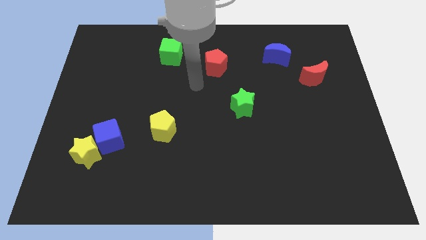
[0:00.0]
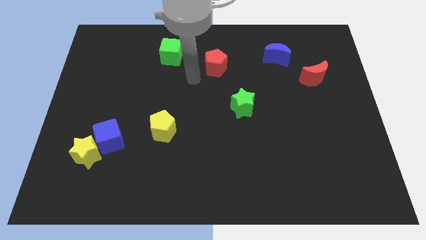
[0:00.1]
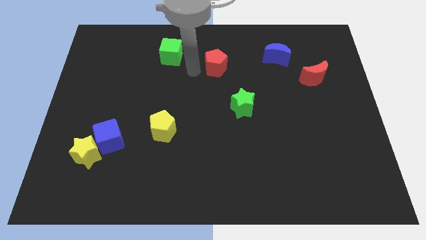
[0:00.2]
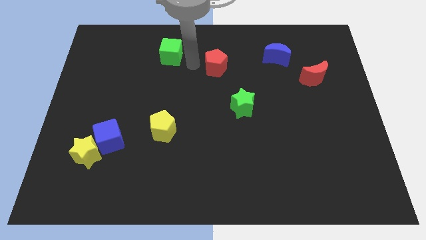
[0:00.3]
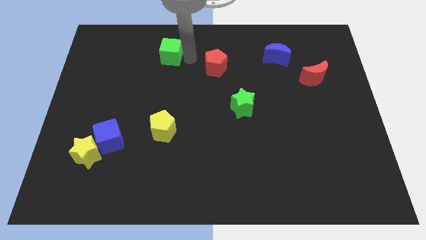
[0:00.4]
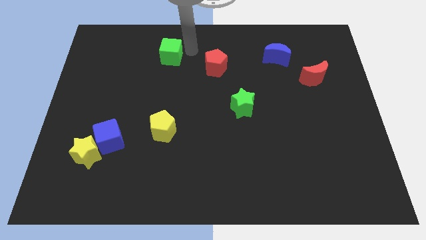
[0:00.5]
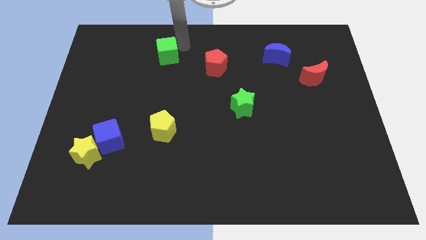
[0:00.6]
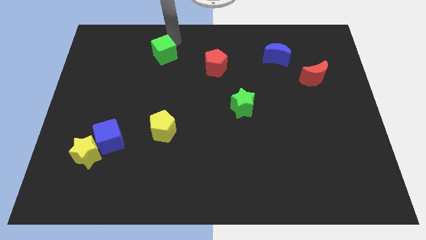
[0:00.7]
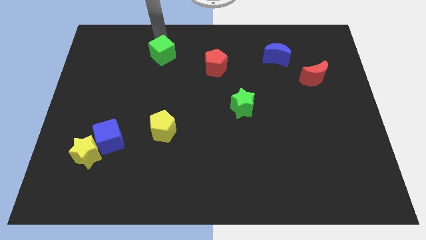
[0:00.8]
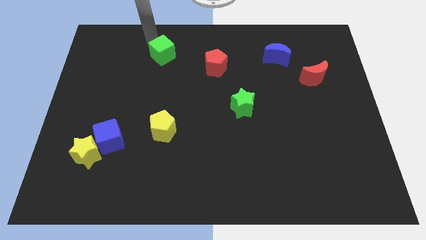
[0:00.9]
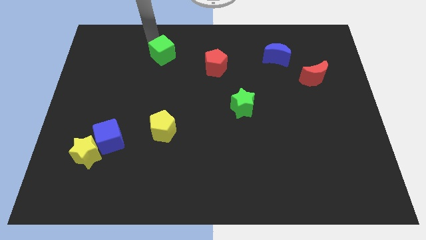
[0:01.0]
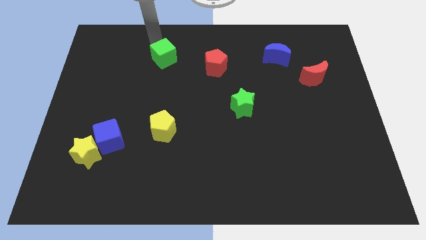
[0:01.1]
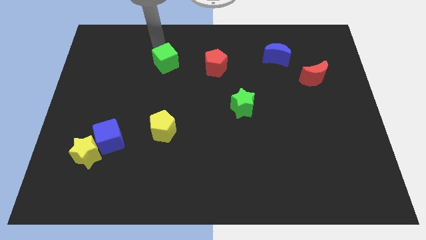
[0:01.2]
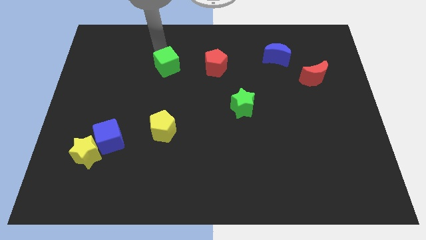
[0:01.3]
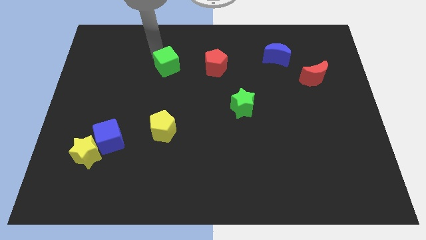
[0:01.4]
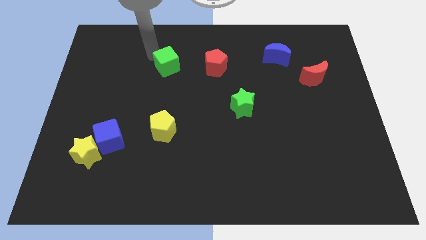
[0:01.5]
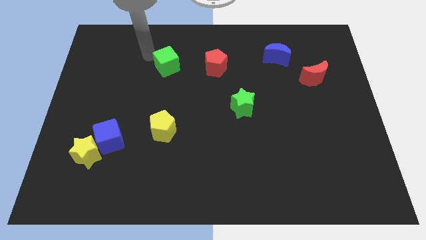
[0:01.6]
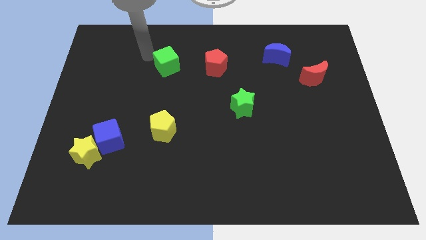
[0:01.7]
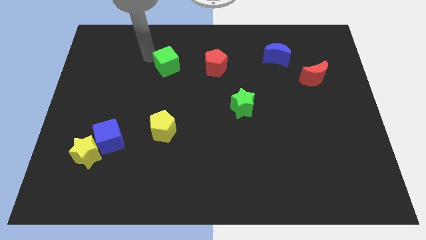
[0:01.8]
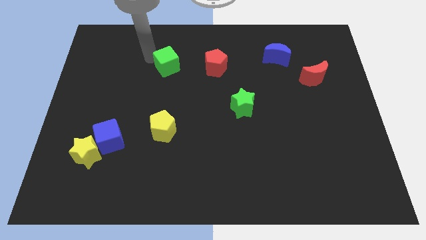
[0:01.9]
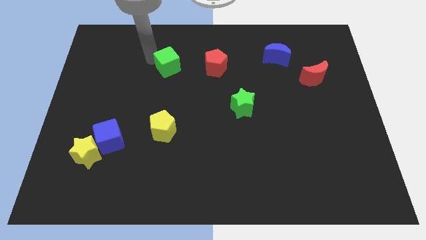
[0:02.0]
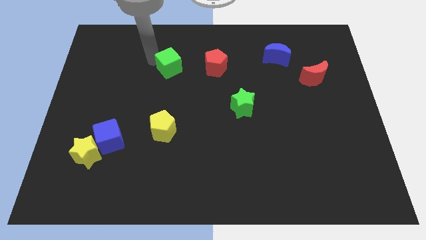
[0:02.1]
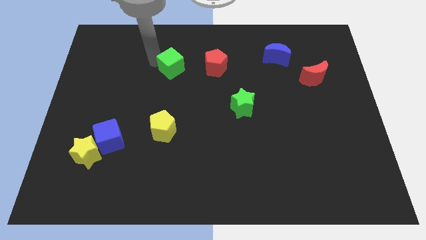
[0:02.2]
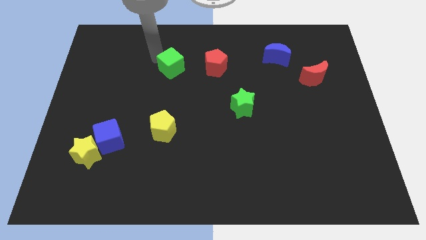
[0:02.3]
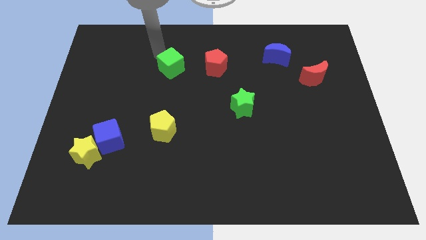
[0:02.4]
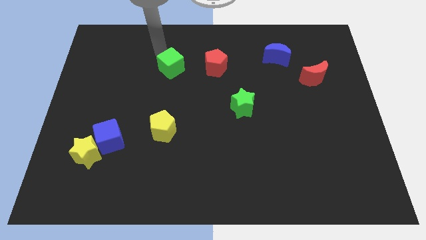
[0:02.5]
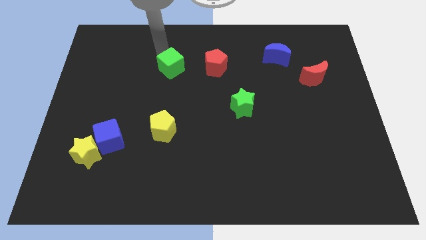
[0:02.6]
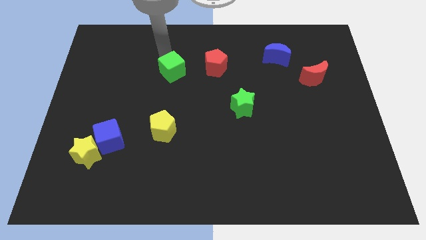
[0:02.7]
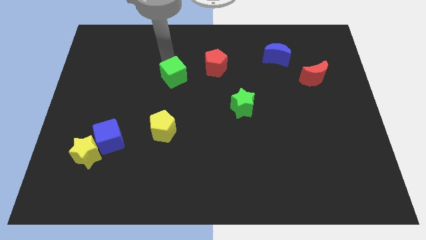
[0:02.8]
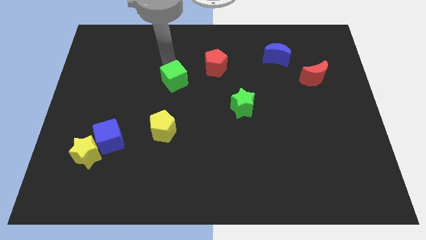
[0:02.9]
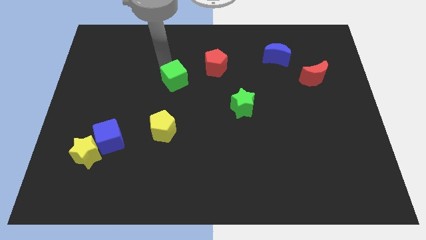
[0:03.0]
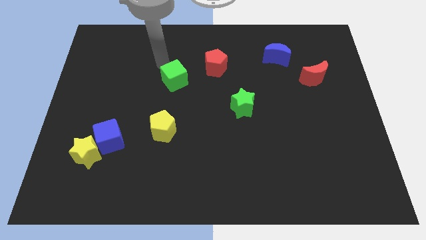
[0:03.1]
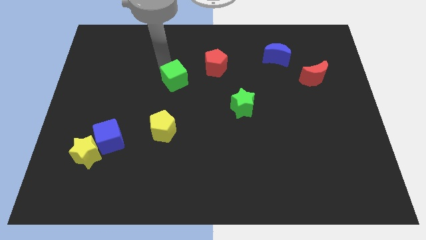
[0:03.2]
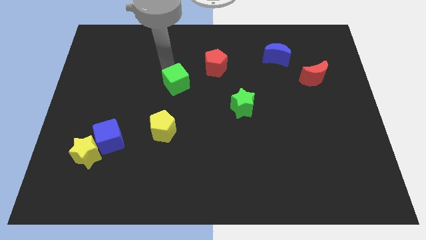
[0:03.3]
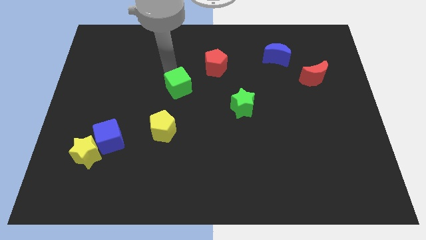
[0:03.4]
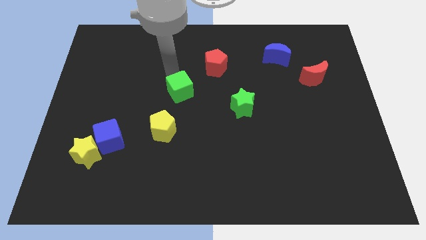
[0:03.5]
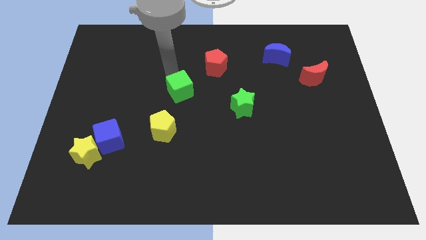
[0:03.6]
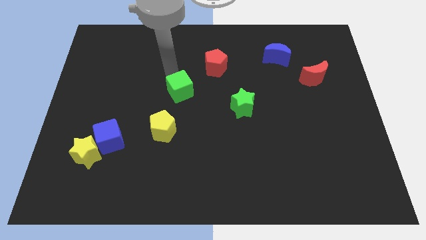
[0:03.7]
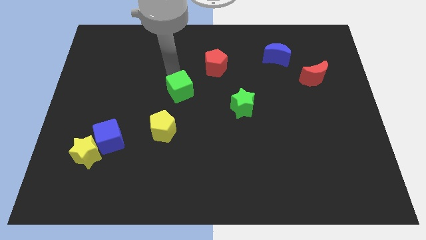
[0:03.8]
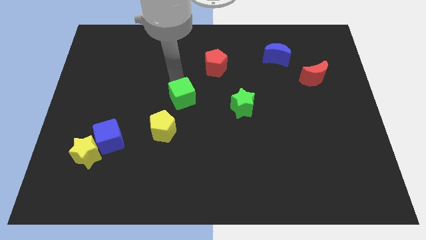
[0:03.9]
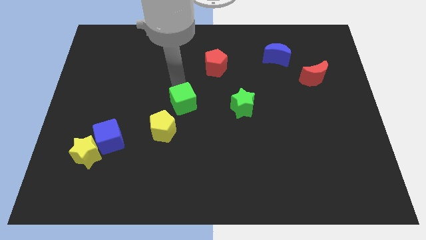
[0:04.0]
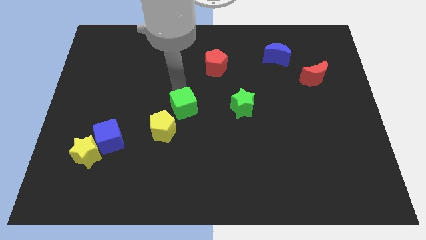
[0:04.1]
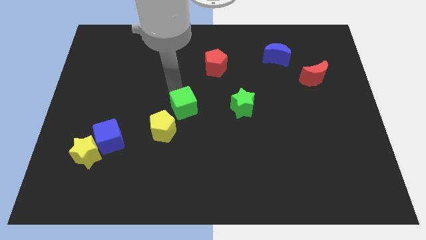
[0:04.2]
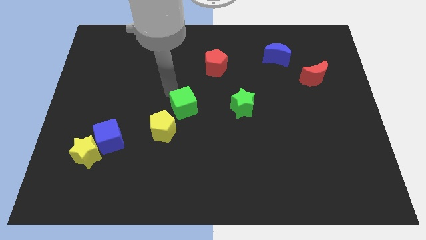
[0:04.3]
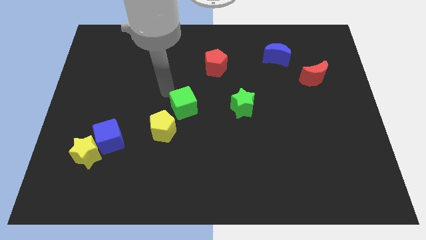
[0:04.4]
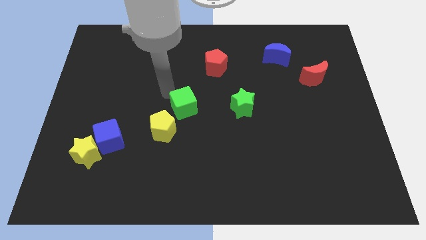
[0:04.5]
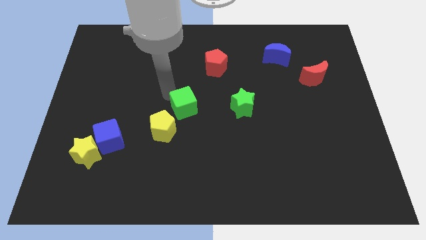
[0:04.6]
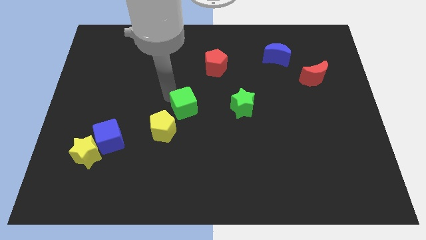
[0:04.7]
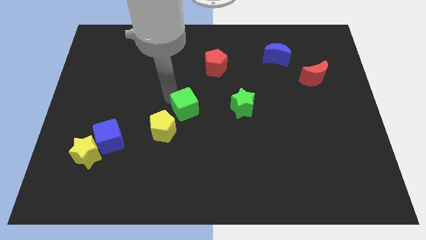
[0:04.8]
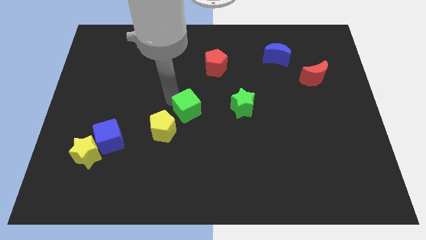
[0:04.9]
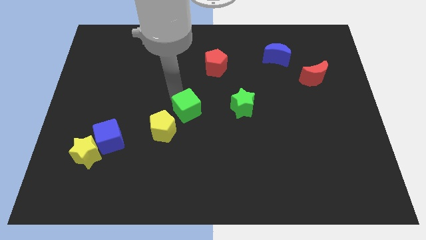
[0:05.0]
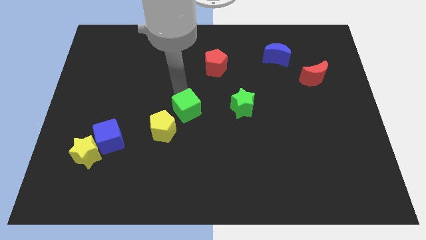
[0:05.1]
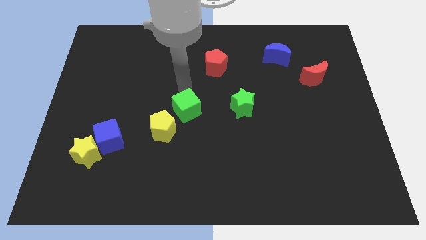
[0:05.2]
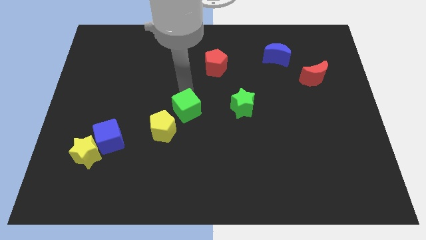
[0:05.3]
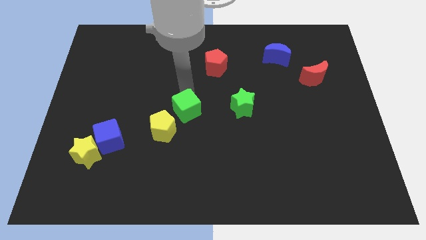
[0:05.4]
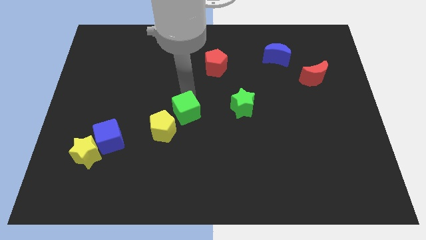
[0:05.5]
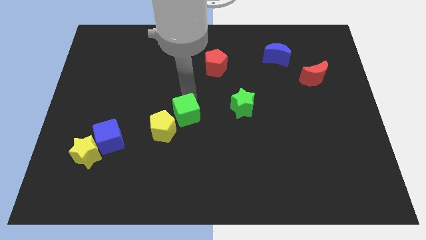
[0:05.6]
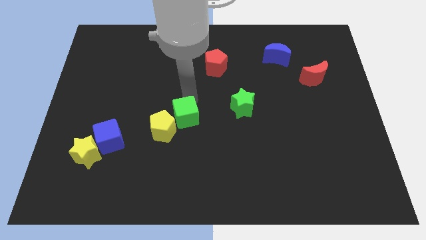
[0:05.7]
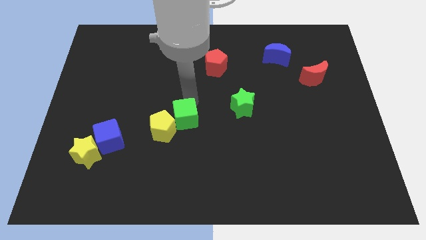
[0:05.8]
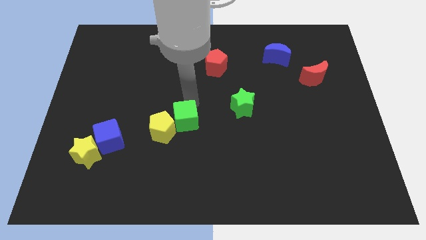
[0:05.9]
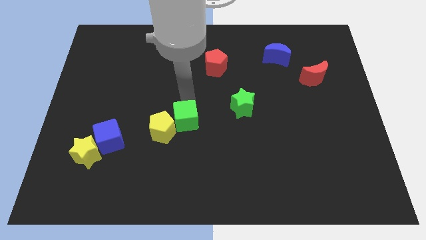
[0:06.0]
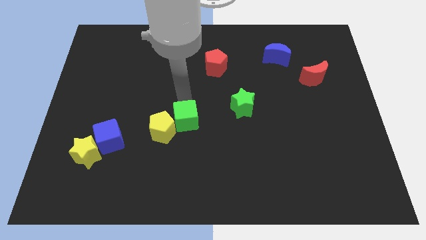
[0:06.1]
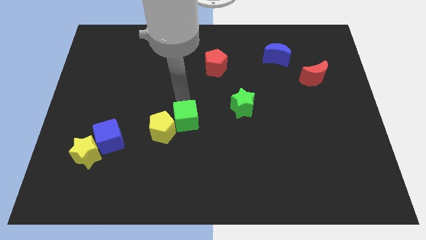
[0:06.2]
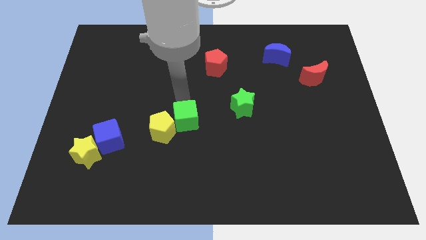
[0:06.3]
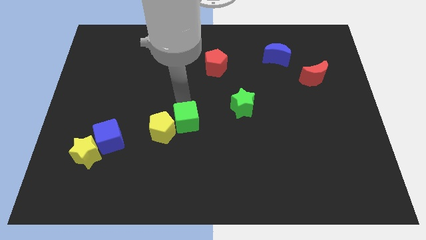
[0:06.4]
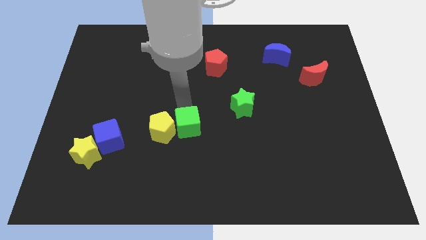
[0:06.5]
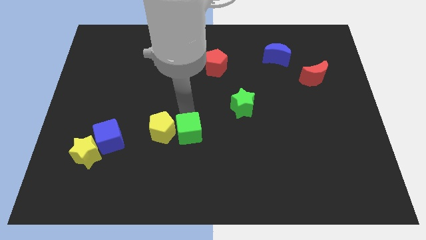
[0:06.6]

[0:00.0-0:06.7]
put the green cube to the bottom right side of the yellow pentagon
